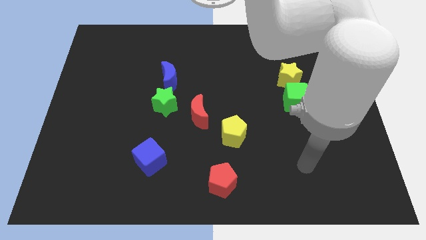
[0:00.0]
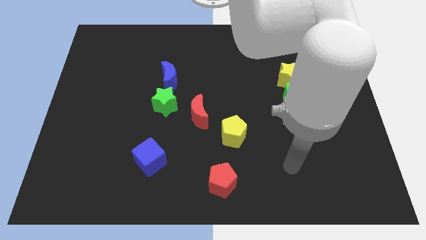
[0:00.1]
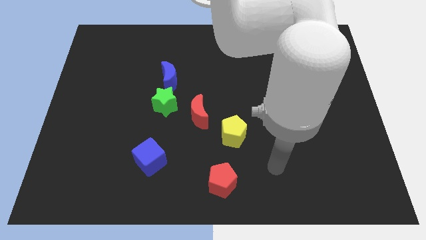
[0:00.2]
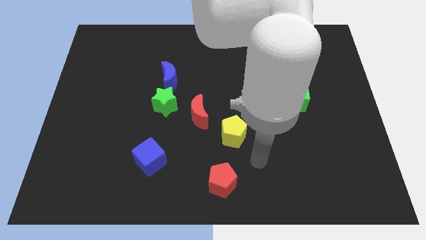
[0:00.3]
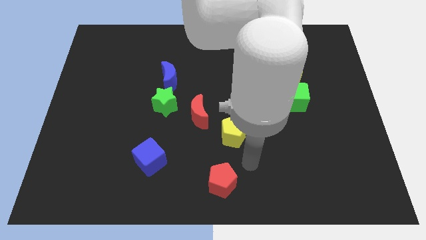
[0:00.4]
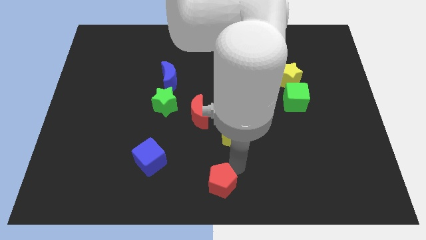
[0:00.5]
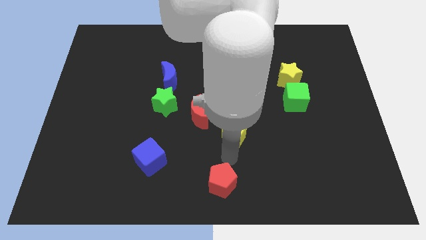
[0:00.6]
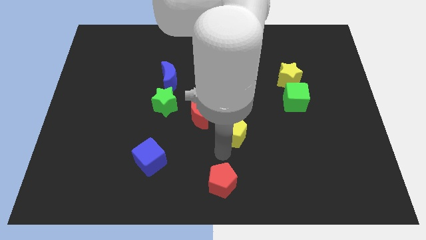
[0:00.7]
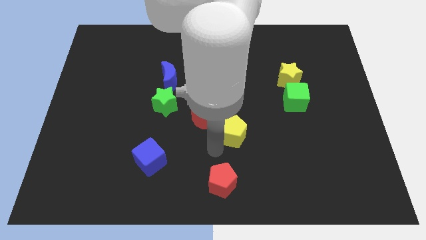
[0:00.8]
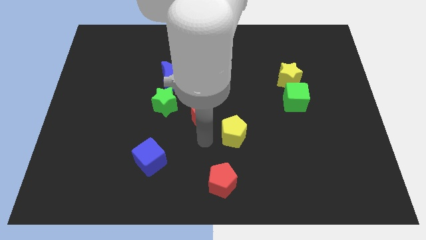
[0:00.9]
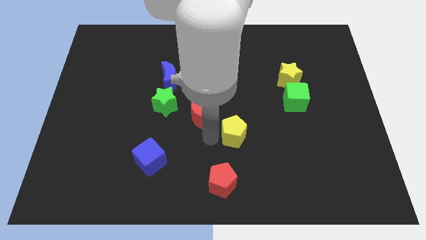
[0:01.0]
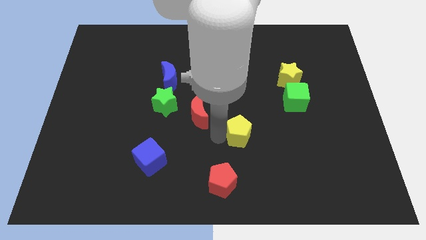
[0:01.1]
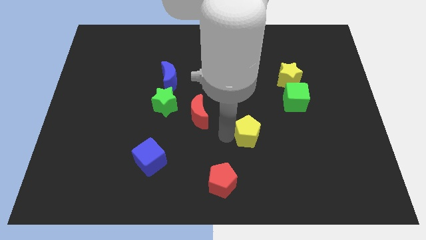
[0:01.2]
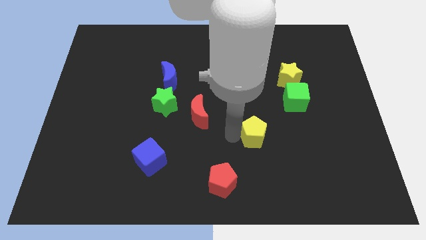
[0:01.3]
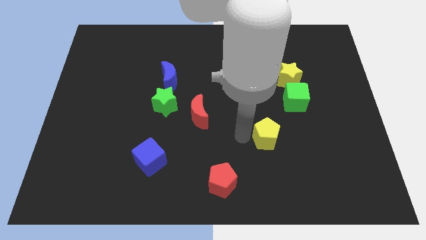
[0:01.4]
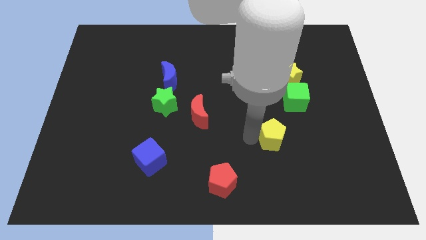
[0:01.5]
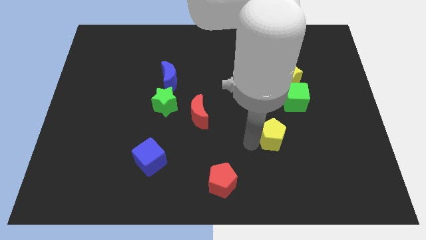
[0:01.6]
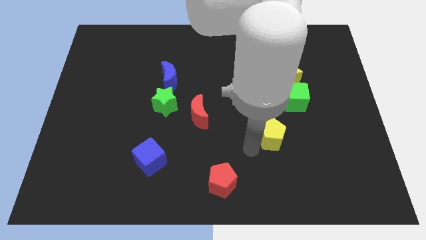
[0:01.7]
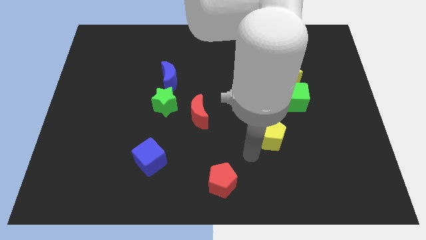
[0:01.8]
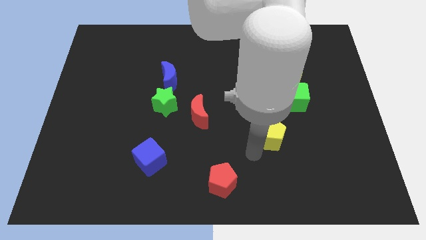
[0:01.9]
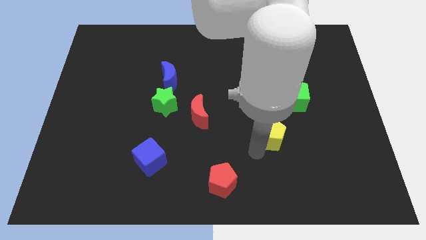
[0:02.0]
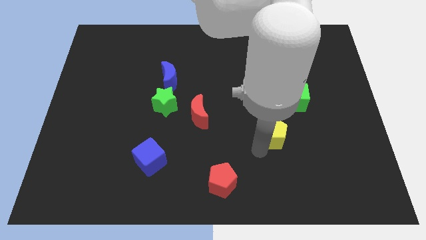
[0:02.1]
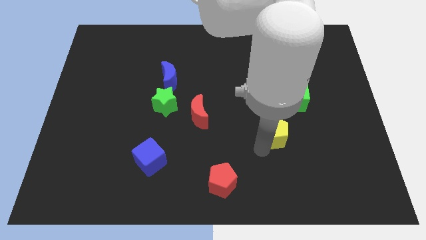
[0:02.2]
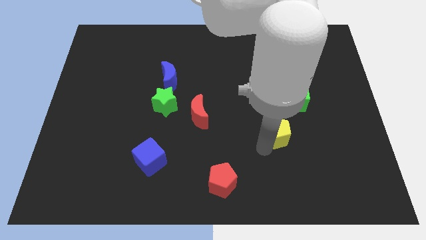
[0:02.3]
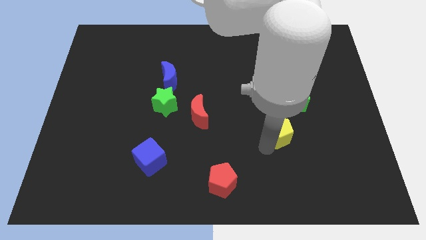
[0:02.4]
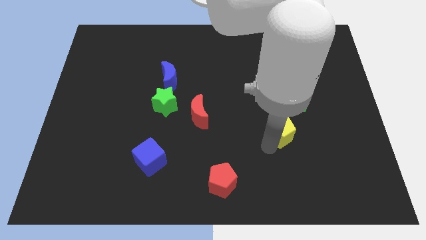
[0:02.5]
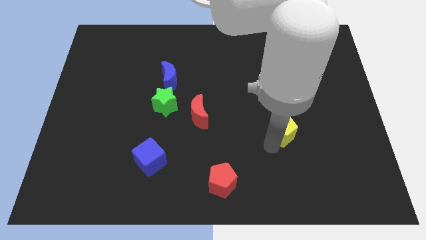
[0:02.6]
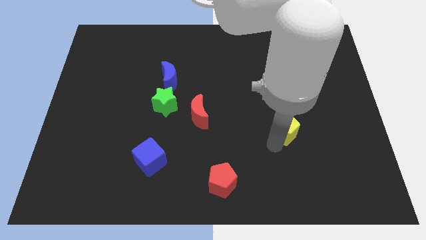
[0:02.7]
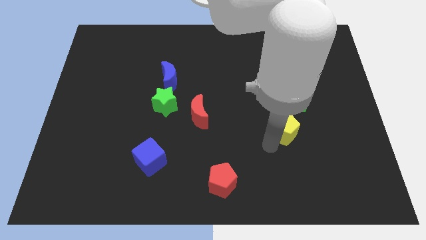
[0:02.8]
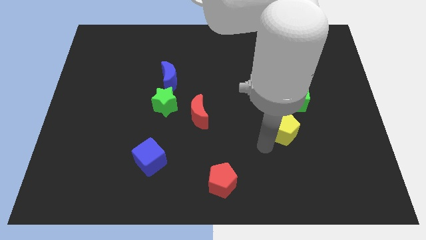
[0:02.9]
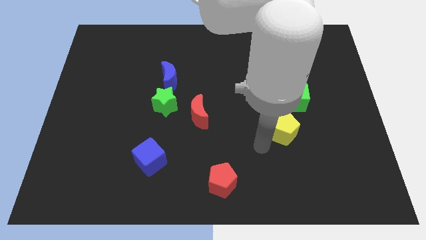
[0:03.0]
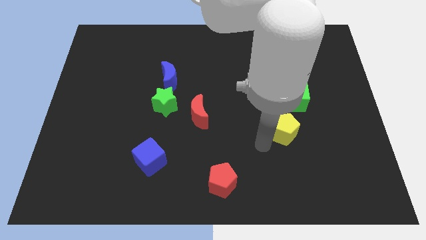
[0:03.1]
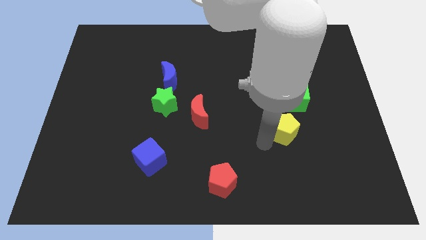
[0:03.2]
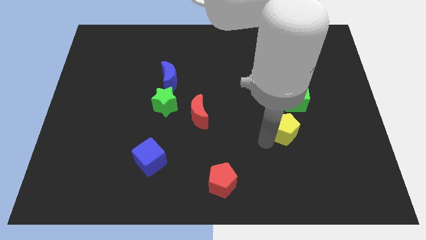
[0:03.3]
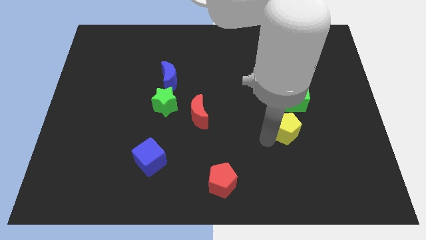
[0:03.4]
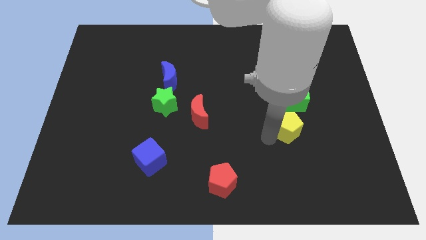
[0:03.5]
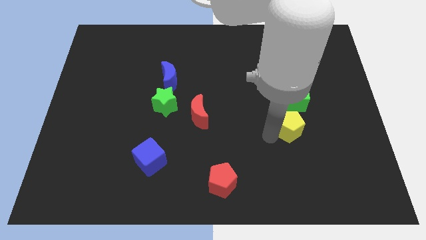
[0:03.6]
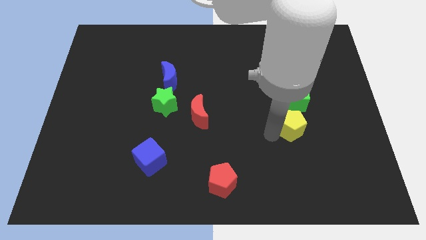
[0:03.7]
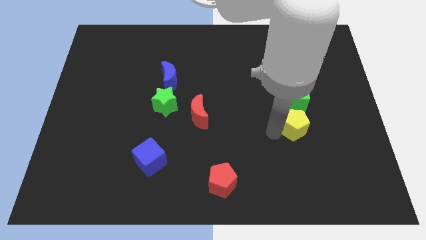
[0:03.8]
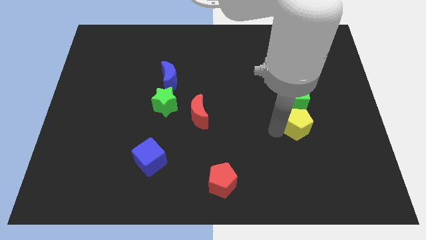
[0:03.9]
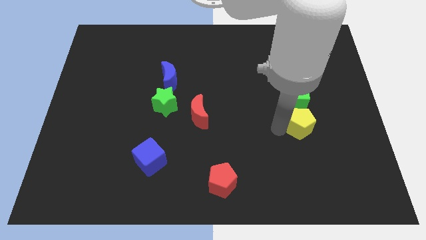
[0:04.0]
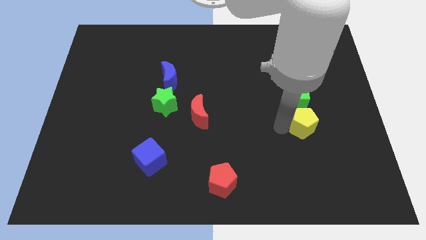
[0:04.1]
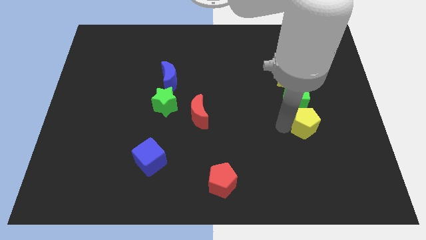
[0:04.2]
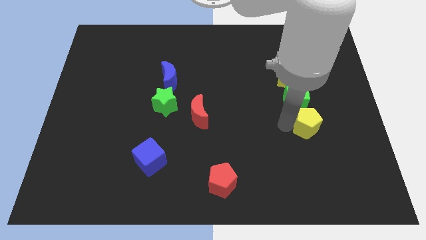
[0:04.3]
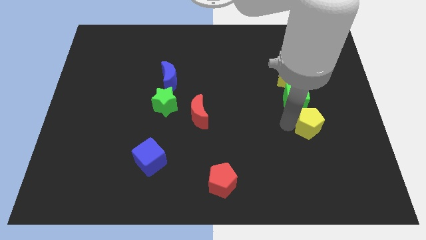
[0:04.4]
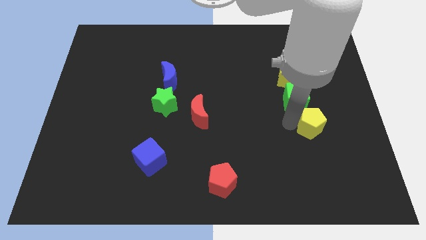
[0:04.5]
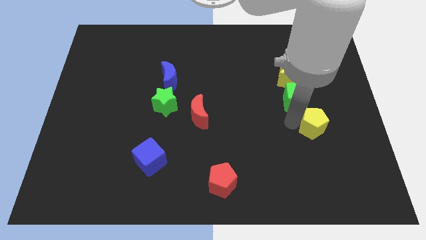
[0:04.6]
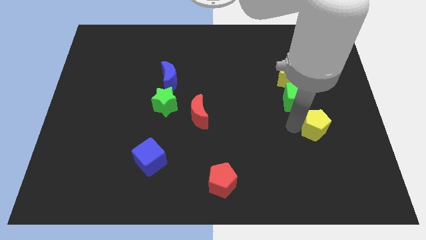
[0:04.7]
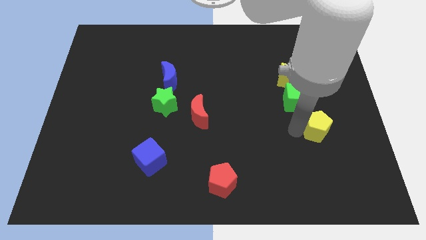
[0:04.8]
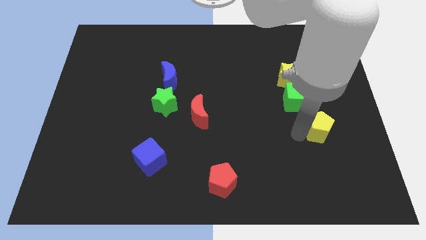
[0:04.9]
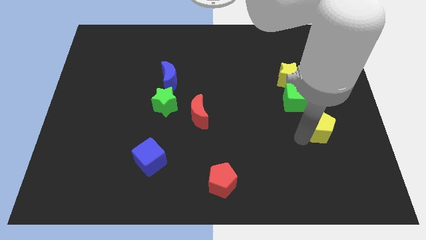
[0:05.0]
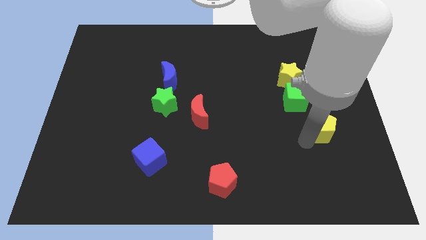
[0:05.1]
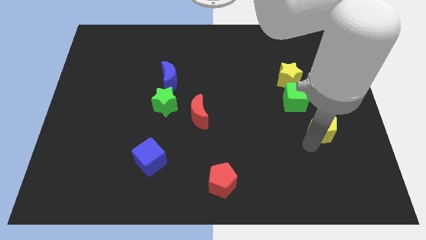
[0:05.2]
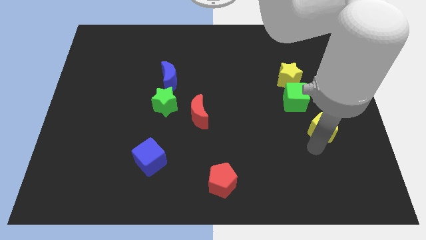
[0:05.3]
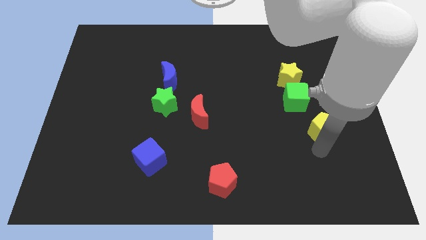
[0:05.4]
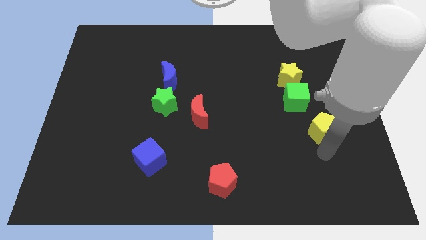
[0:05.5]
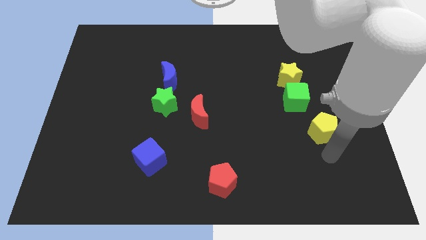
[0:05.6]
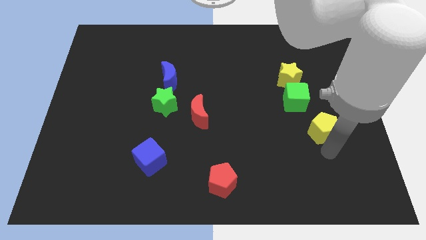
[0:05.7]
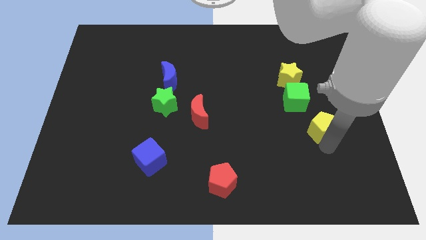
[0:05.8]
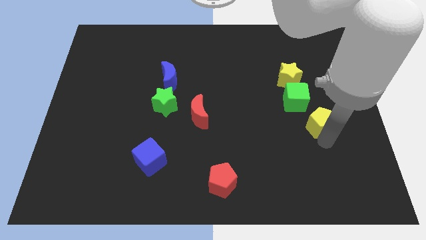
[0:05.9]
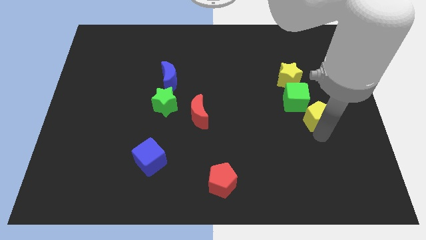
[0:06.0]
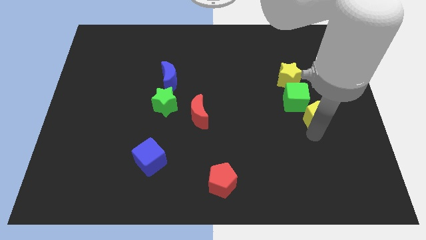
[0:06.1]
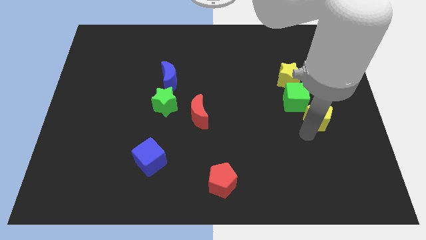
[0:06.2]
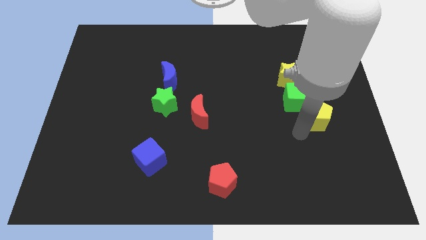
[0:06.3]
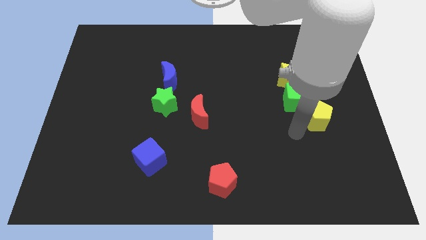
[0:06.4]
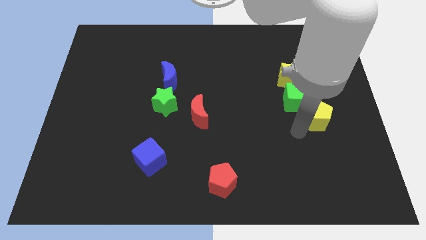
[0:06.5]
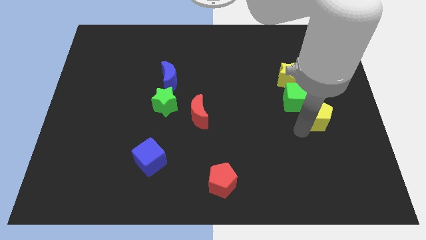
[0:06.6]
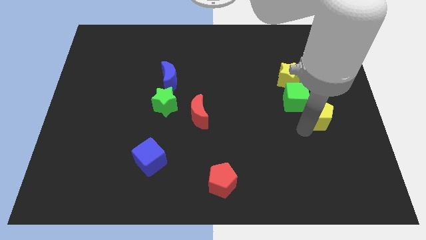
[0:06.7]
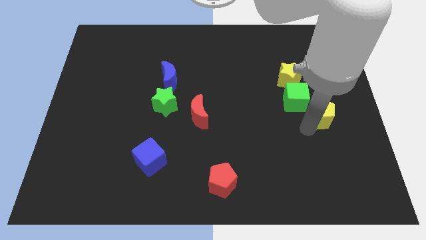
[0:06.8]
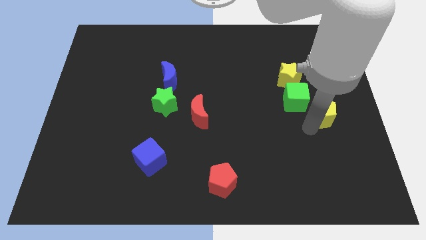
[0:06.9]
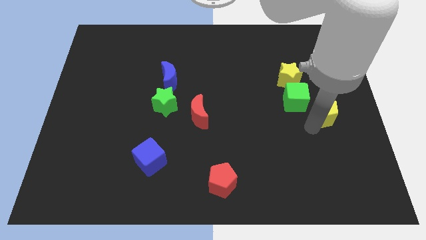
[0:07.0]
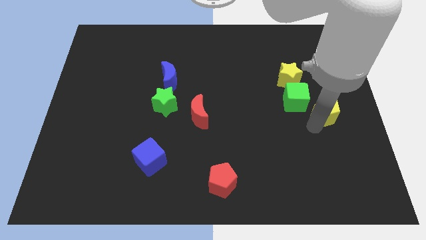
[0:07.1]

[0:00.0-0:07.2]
slide the yellow pentagon to the right side
